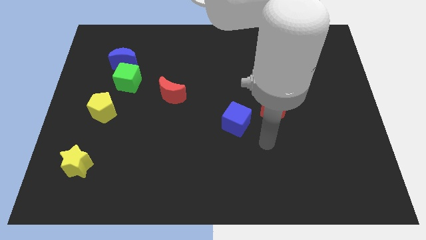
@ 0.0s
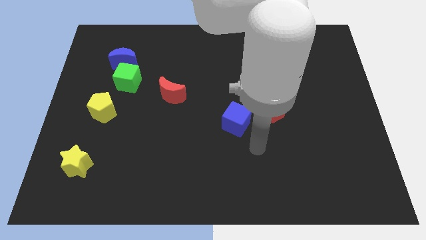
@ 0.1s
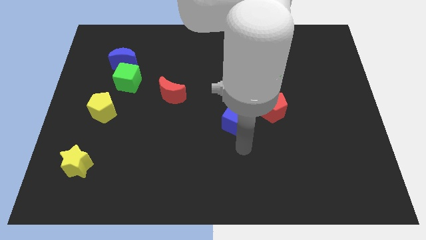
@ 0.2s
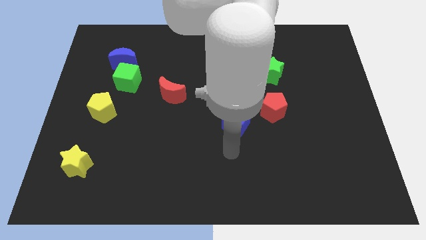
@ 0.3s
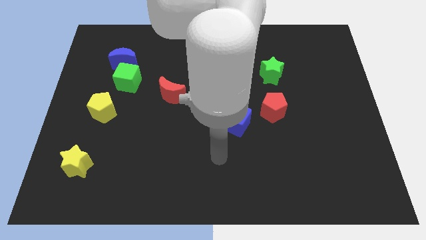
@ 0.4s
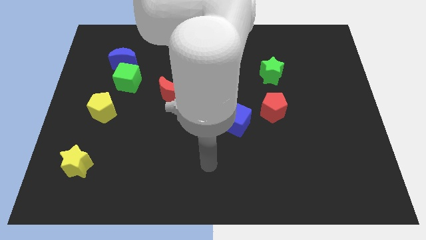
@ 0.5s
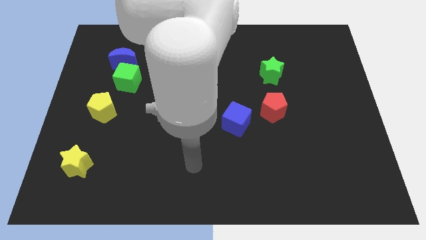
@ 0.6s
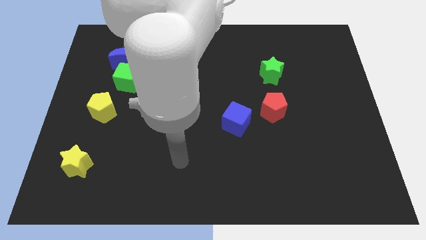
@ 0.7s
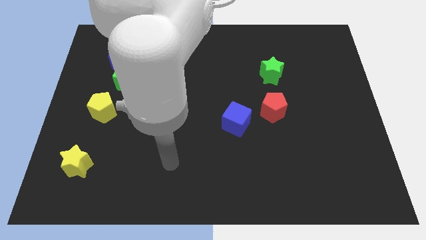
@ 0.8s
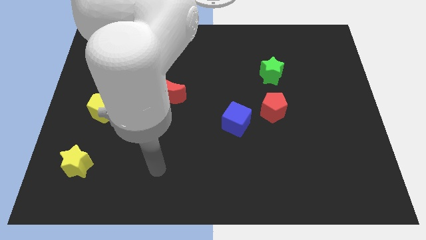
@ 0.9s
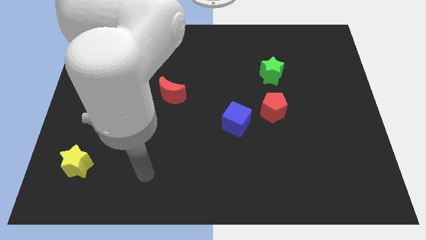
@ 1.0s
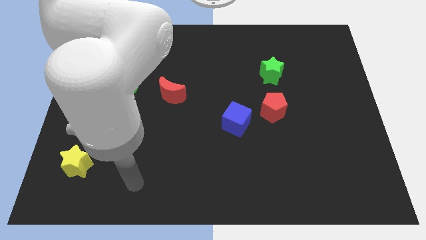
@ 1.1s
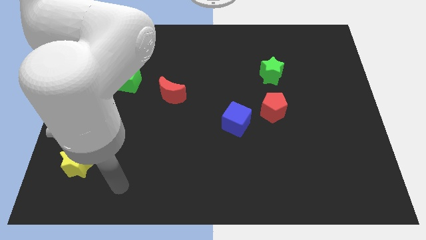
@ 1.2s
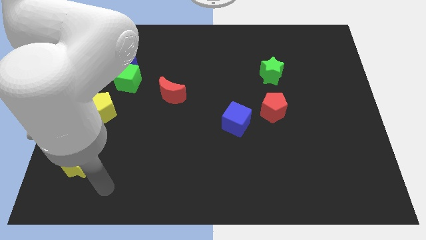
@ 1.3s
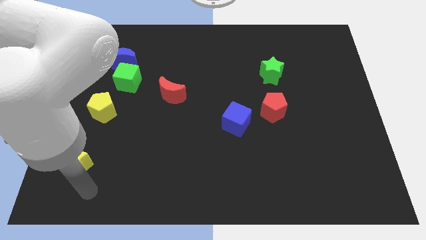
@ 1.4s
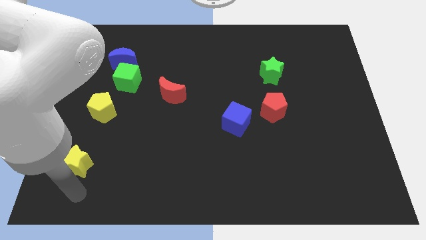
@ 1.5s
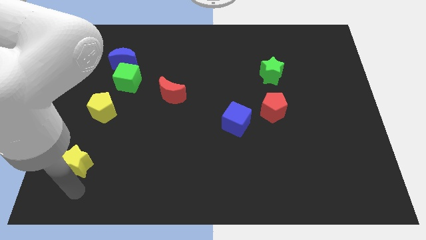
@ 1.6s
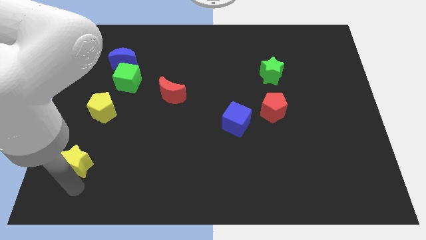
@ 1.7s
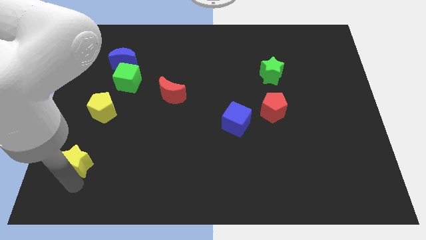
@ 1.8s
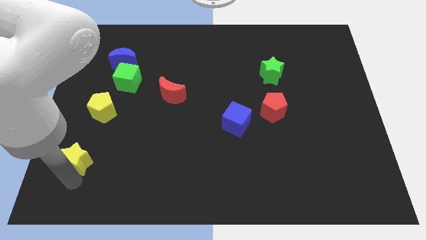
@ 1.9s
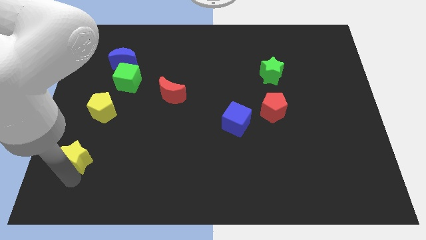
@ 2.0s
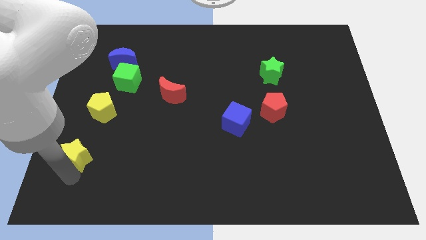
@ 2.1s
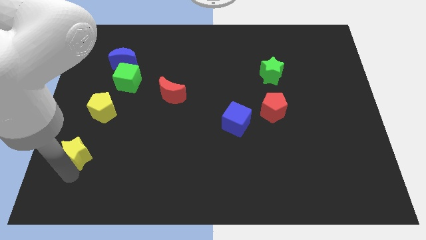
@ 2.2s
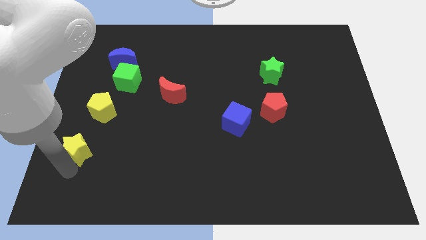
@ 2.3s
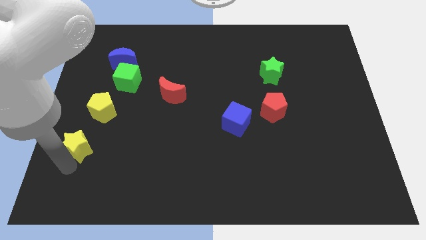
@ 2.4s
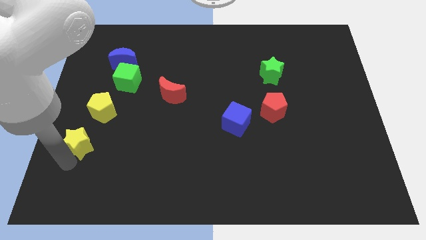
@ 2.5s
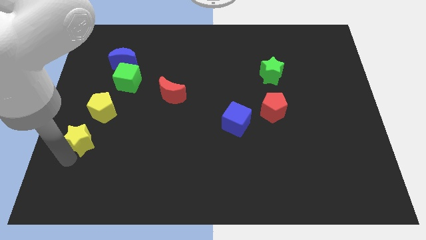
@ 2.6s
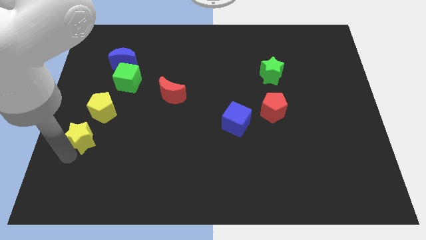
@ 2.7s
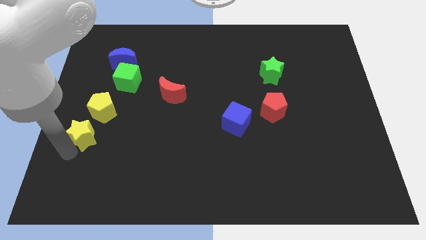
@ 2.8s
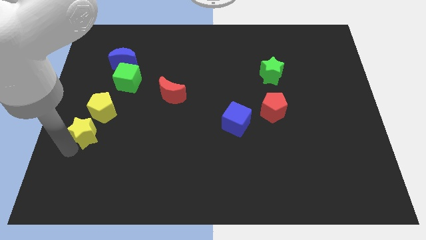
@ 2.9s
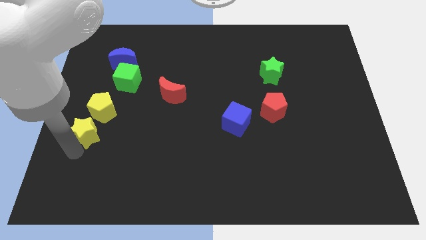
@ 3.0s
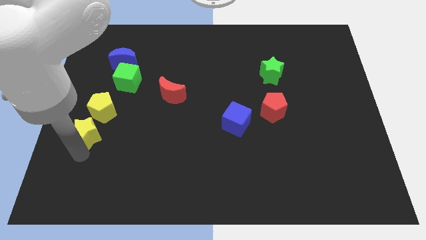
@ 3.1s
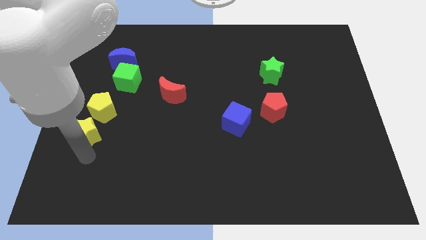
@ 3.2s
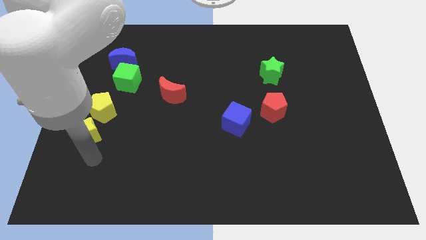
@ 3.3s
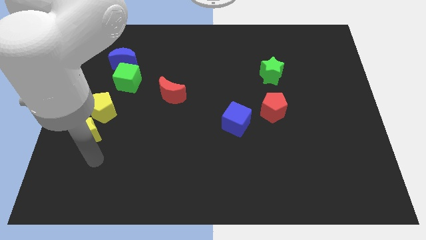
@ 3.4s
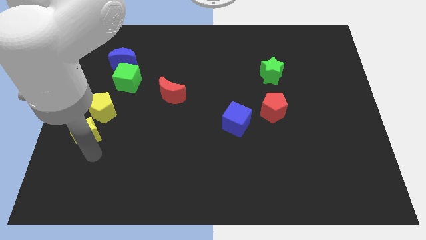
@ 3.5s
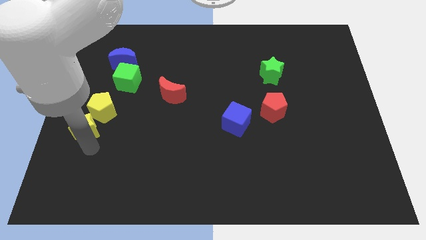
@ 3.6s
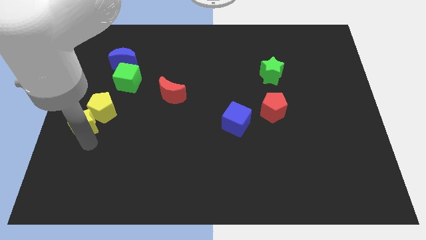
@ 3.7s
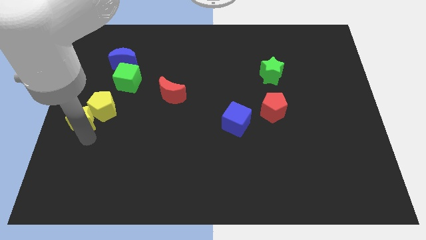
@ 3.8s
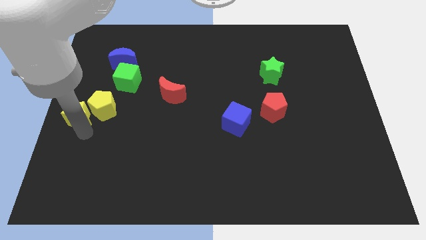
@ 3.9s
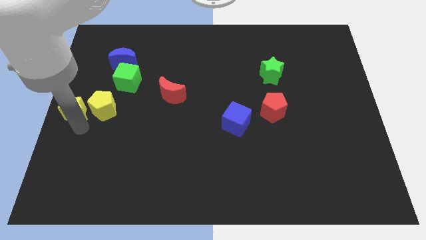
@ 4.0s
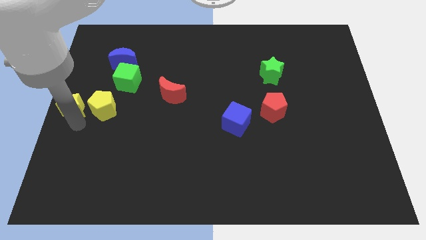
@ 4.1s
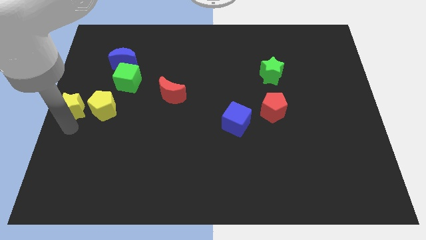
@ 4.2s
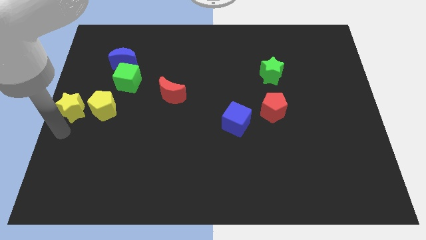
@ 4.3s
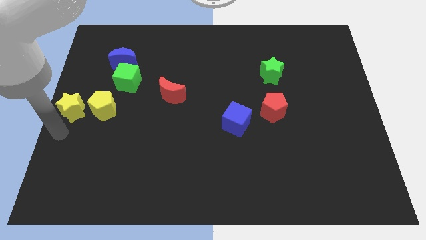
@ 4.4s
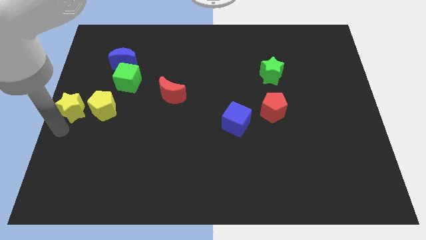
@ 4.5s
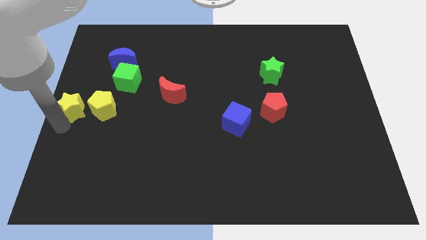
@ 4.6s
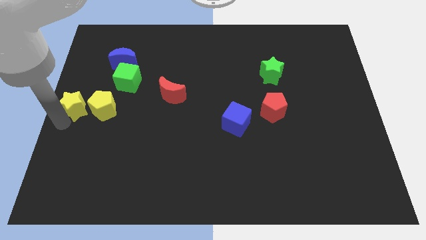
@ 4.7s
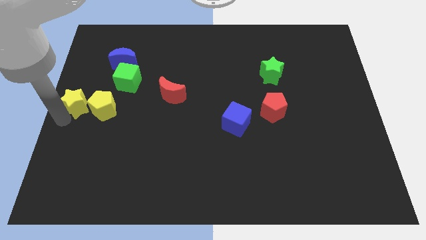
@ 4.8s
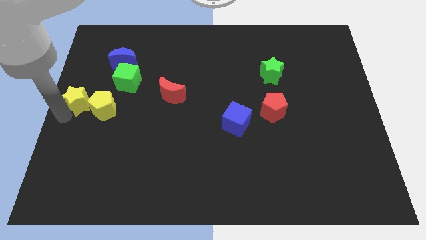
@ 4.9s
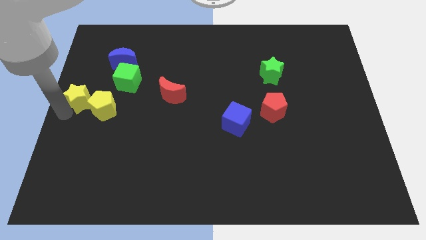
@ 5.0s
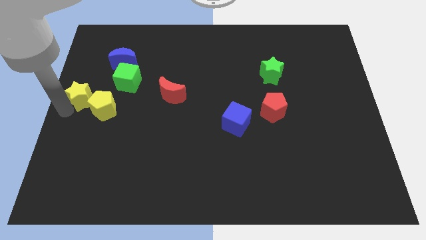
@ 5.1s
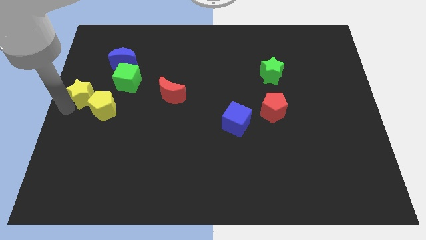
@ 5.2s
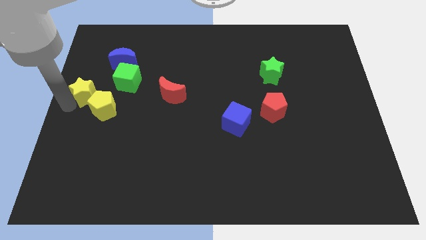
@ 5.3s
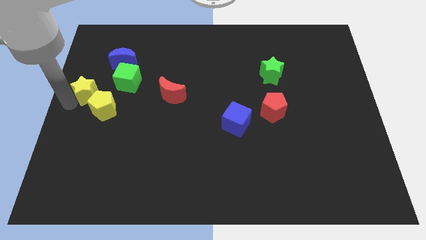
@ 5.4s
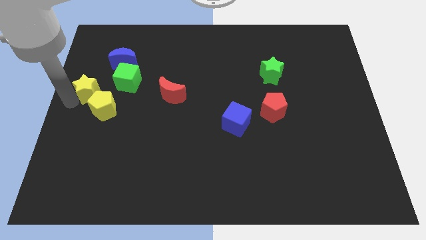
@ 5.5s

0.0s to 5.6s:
slide the yellow star upwards

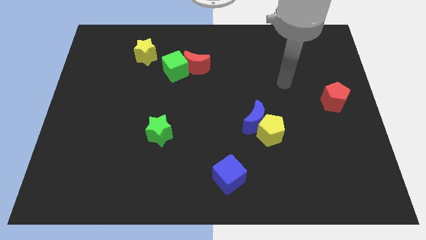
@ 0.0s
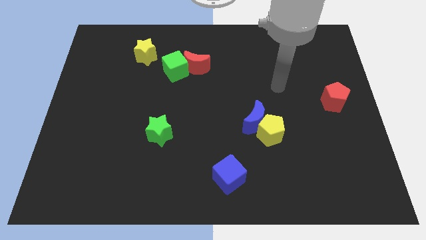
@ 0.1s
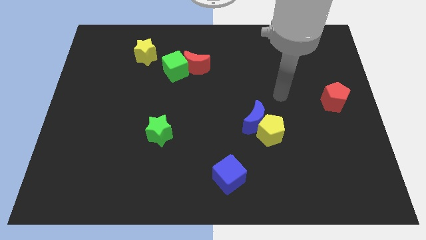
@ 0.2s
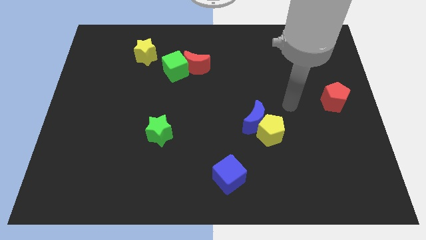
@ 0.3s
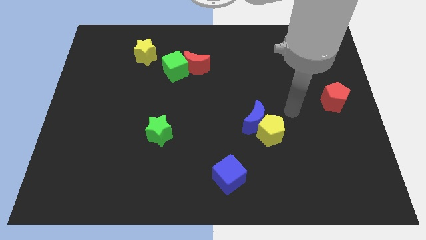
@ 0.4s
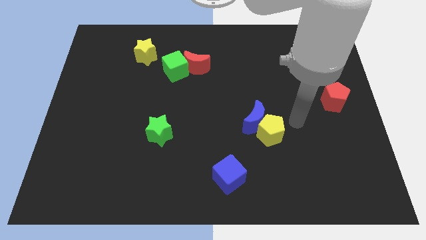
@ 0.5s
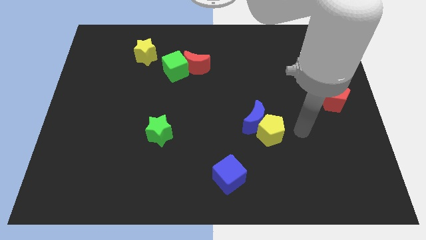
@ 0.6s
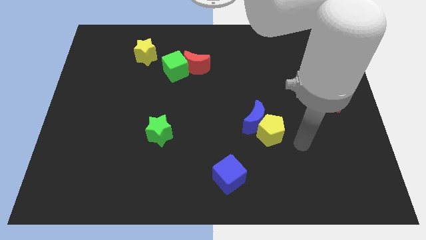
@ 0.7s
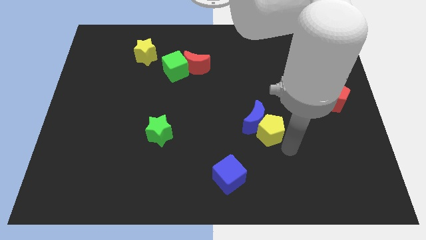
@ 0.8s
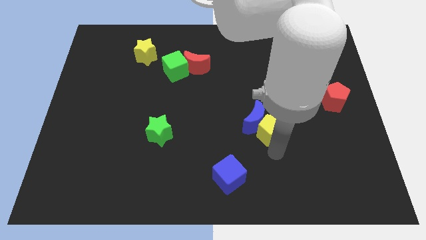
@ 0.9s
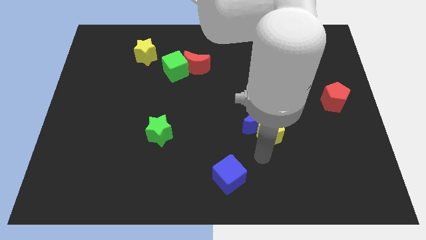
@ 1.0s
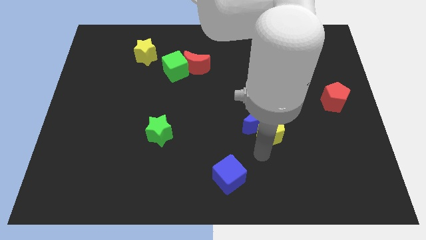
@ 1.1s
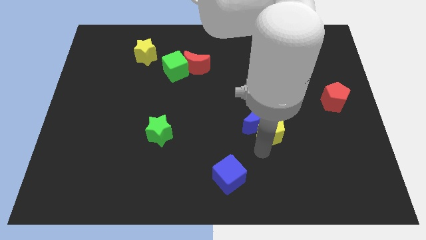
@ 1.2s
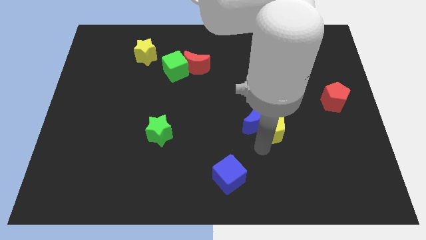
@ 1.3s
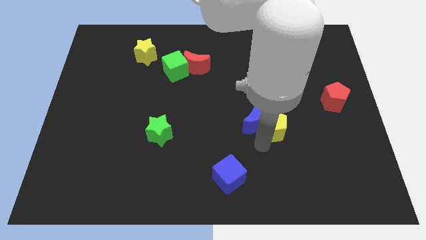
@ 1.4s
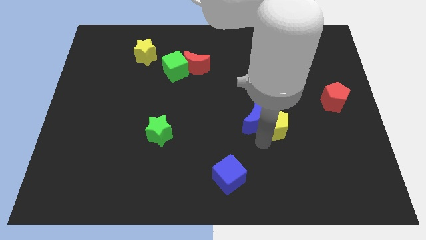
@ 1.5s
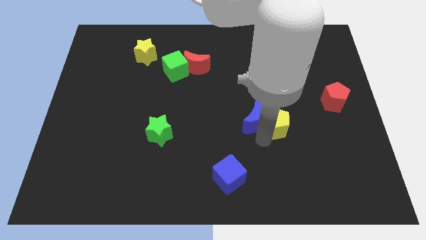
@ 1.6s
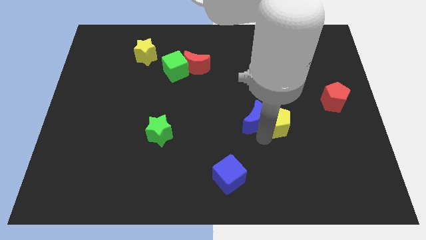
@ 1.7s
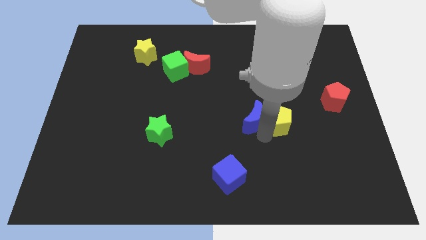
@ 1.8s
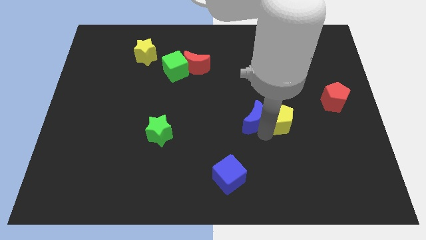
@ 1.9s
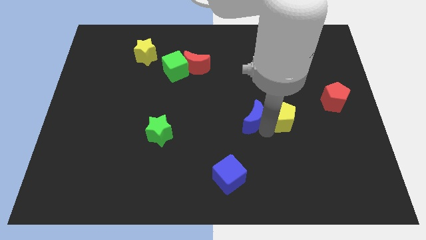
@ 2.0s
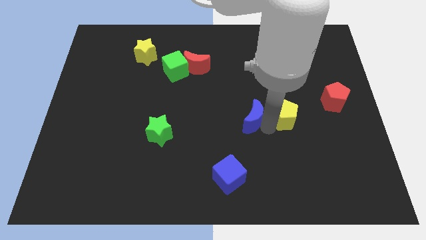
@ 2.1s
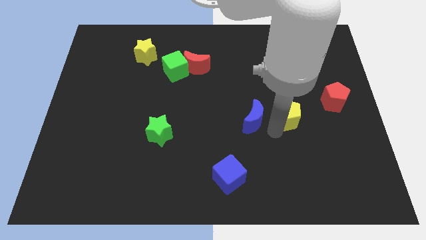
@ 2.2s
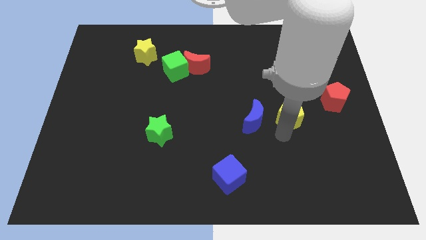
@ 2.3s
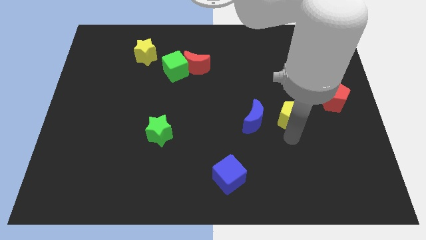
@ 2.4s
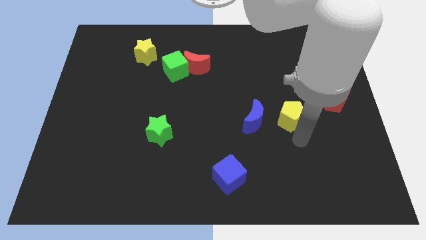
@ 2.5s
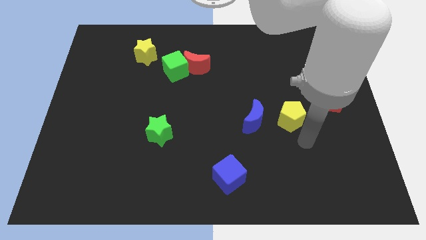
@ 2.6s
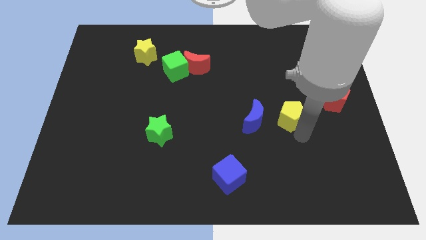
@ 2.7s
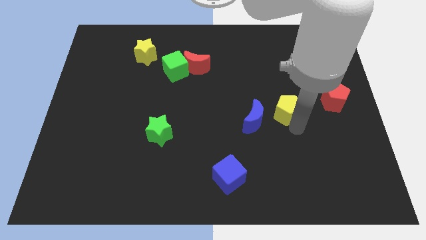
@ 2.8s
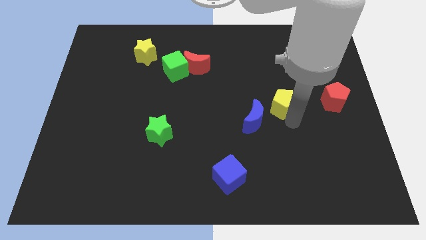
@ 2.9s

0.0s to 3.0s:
push the yellow pentagon upwards somewhat
